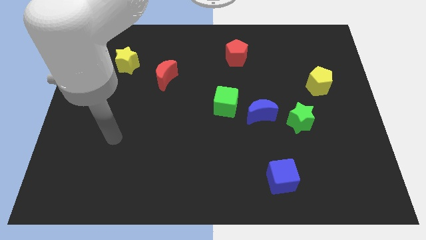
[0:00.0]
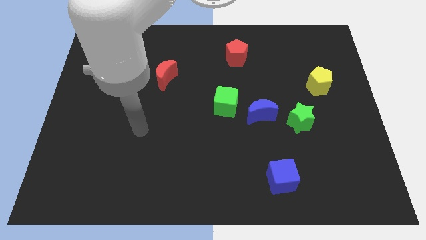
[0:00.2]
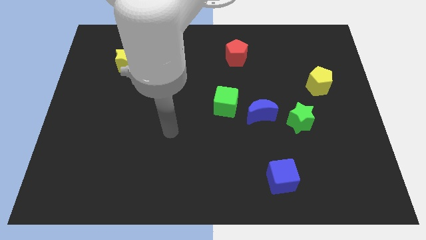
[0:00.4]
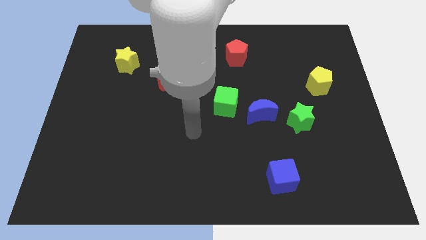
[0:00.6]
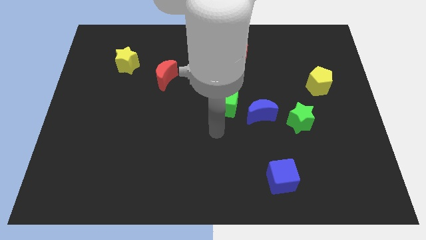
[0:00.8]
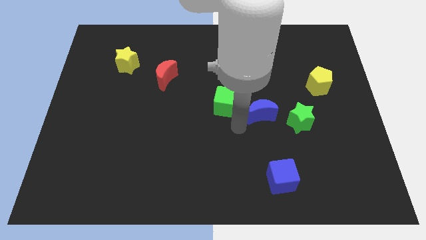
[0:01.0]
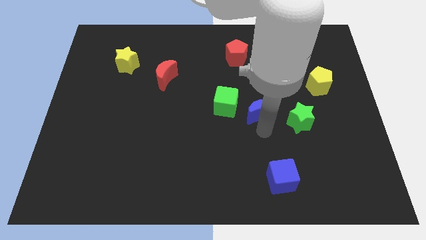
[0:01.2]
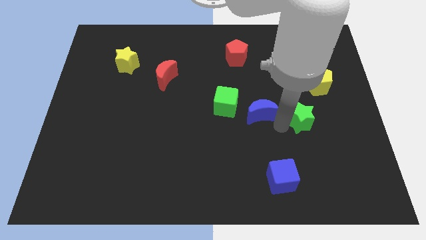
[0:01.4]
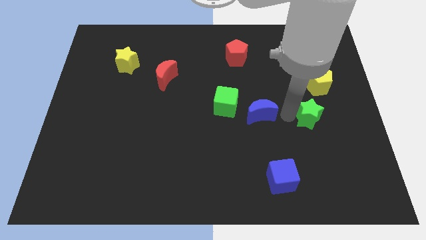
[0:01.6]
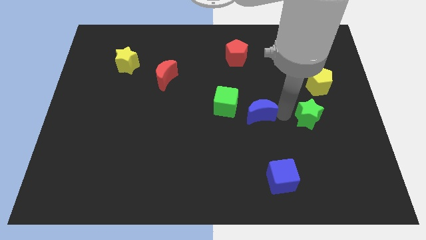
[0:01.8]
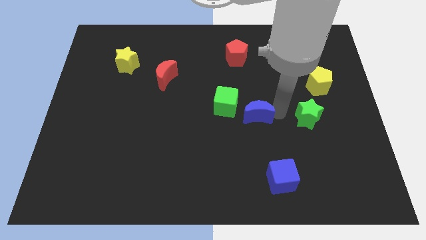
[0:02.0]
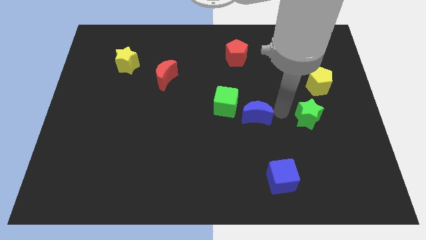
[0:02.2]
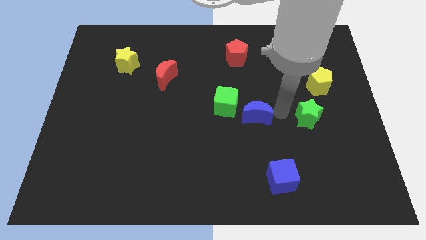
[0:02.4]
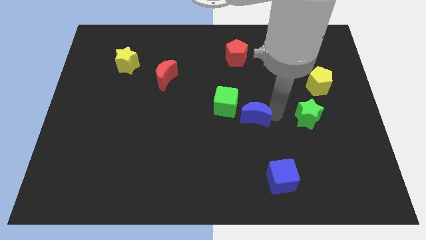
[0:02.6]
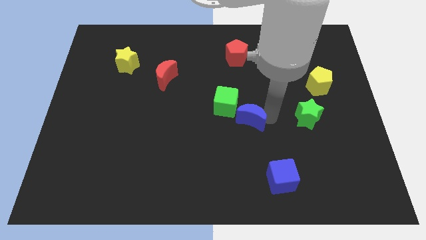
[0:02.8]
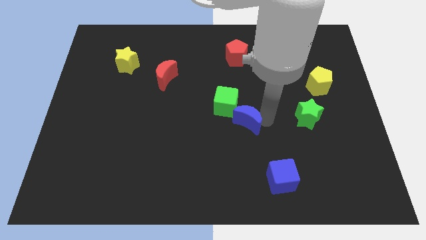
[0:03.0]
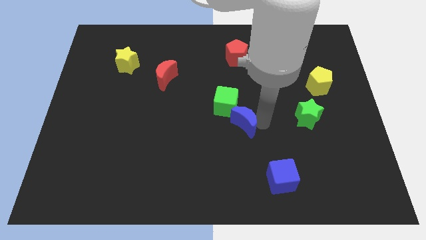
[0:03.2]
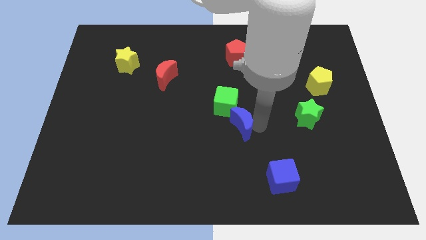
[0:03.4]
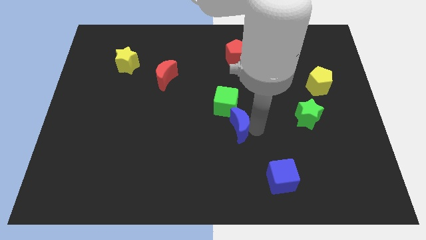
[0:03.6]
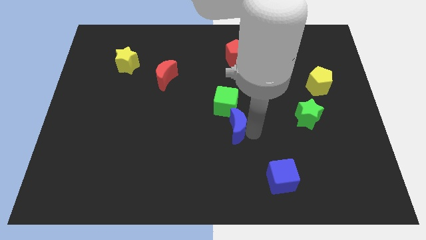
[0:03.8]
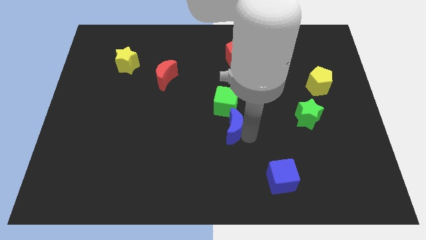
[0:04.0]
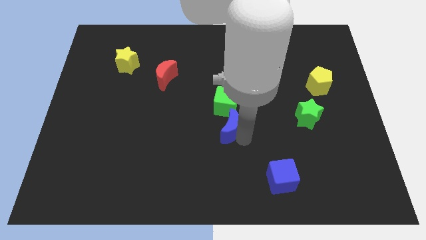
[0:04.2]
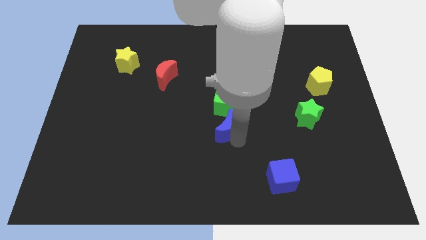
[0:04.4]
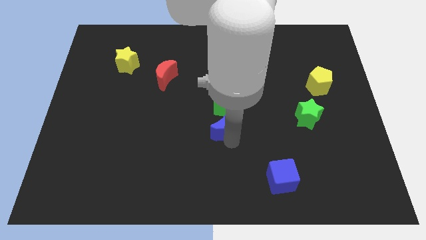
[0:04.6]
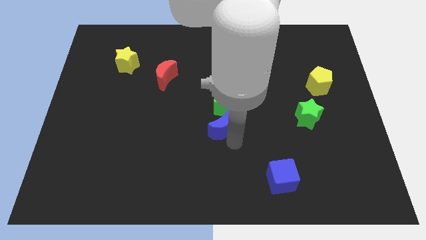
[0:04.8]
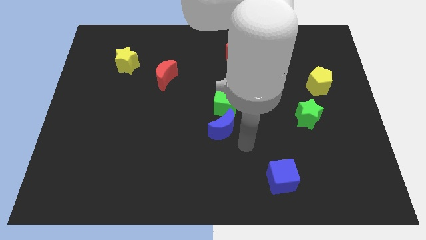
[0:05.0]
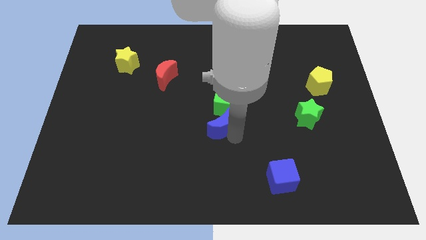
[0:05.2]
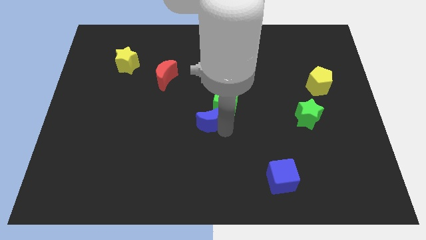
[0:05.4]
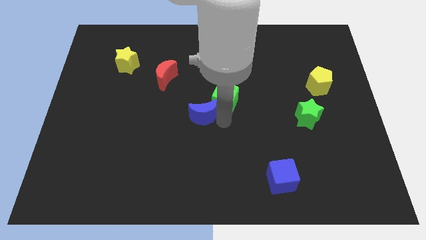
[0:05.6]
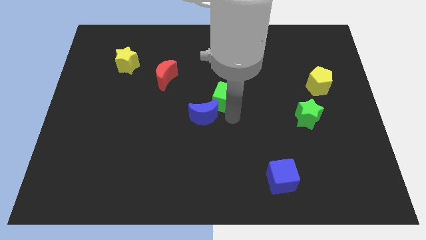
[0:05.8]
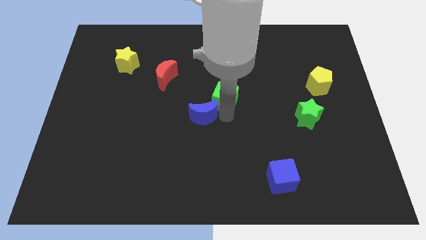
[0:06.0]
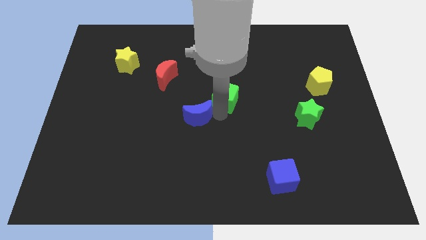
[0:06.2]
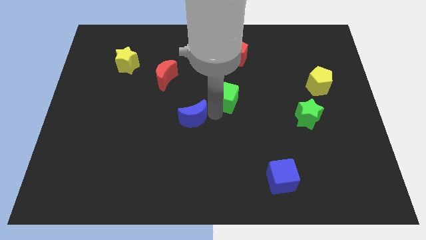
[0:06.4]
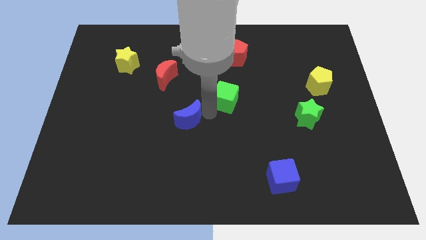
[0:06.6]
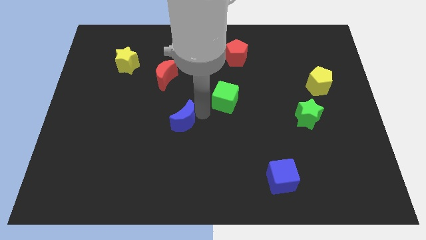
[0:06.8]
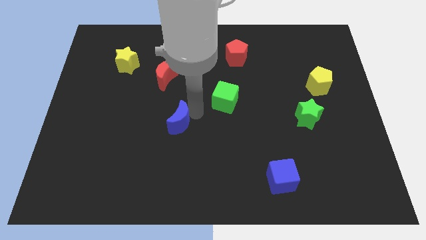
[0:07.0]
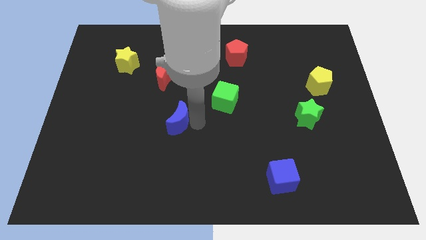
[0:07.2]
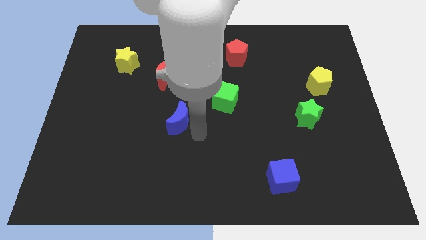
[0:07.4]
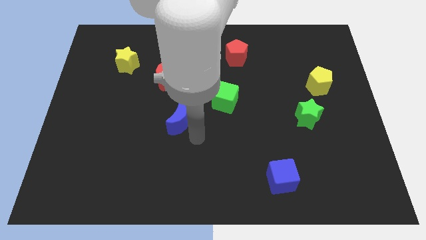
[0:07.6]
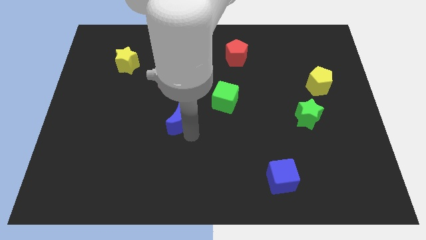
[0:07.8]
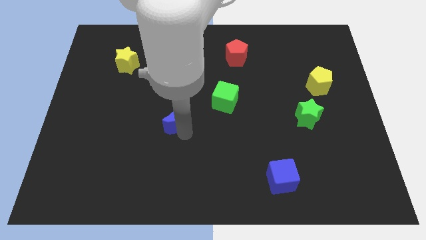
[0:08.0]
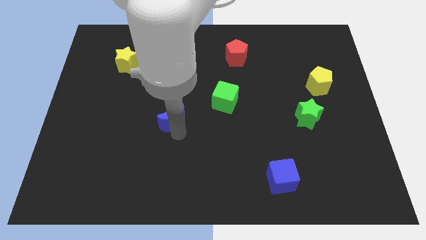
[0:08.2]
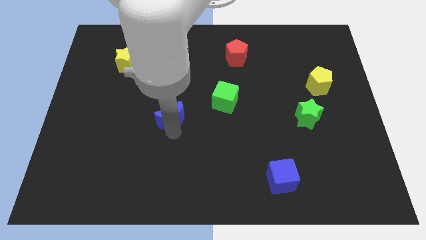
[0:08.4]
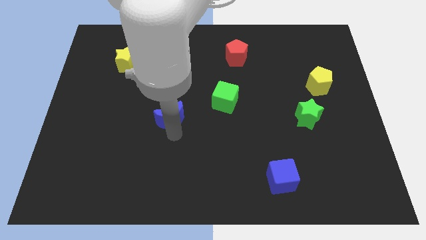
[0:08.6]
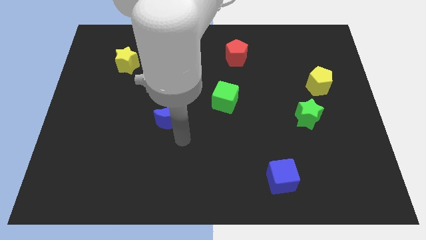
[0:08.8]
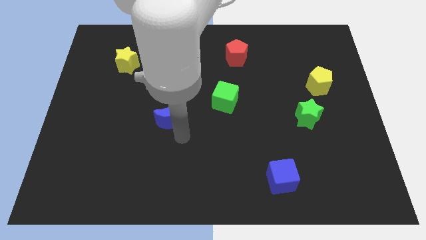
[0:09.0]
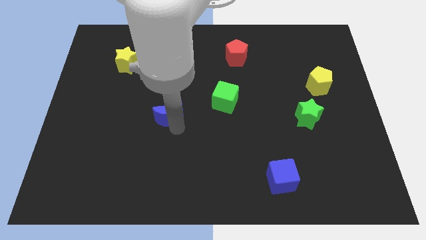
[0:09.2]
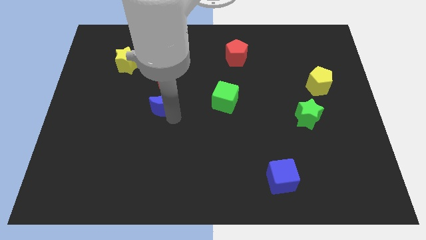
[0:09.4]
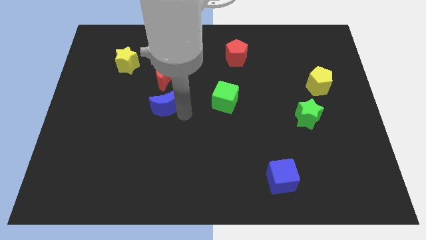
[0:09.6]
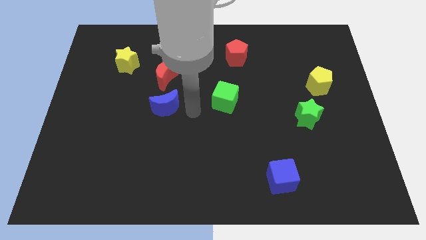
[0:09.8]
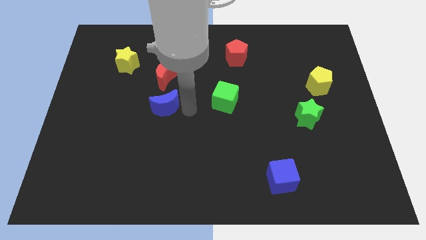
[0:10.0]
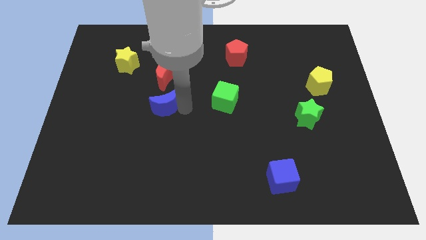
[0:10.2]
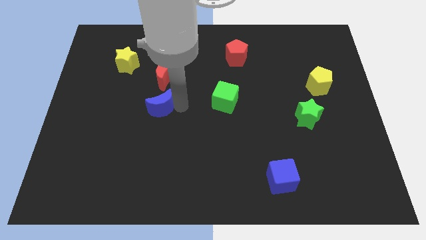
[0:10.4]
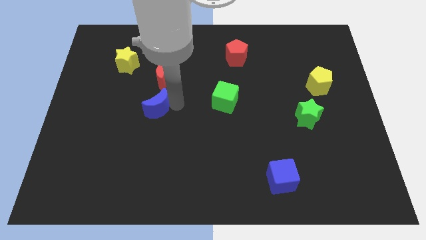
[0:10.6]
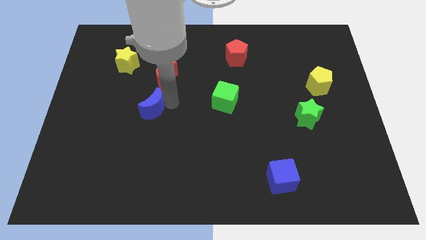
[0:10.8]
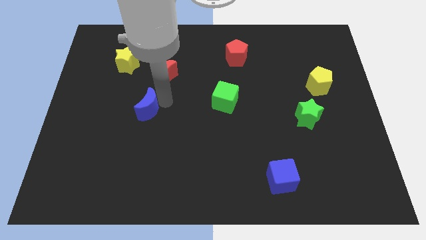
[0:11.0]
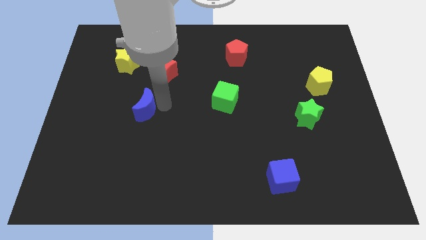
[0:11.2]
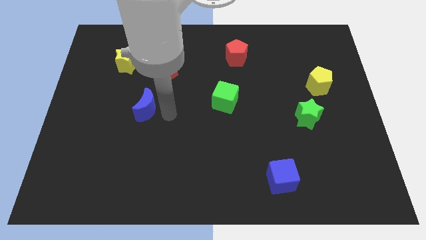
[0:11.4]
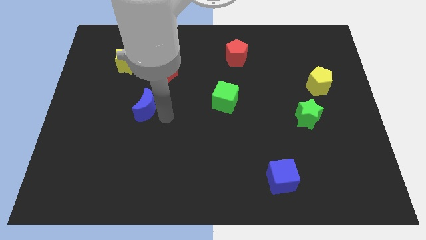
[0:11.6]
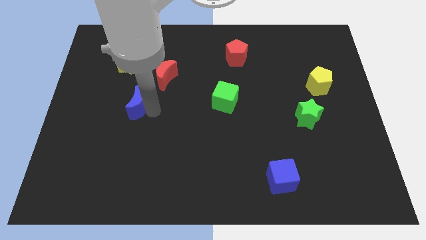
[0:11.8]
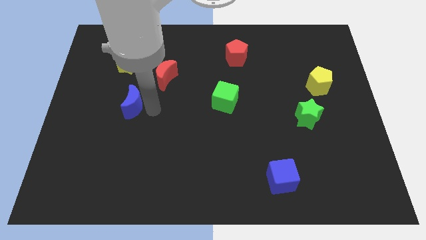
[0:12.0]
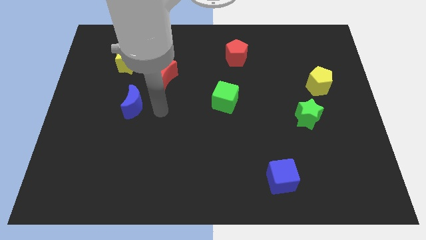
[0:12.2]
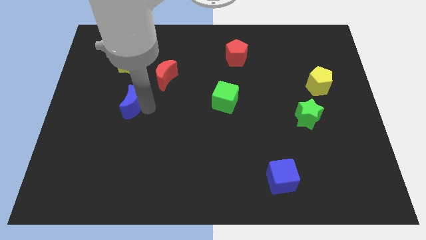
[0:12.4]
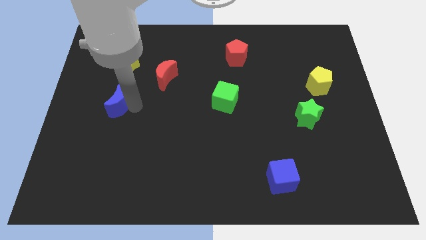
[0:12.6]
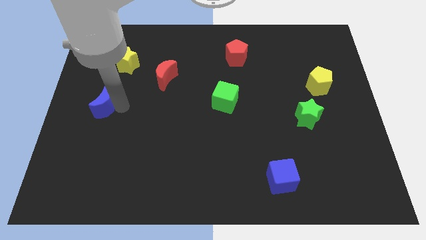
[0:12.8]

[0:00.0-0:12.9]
slide the blue moon to the center left
